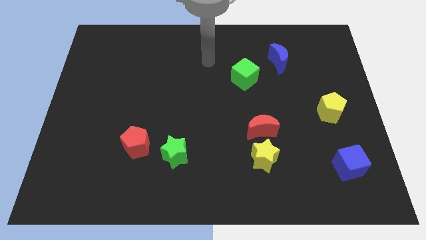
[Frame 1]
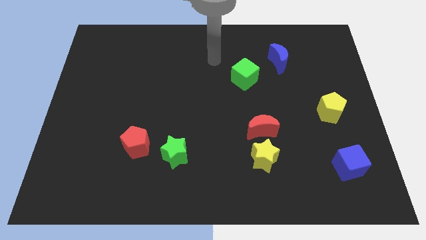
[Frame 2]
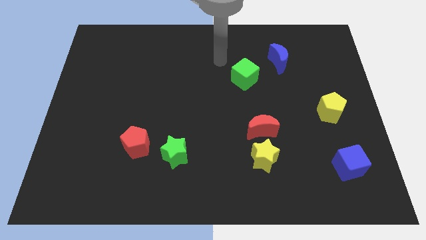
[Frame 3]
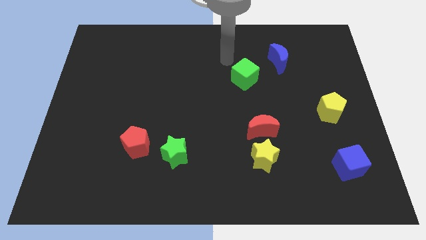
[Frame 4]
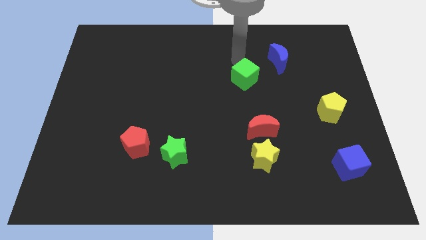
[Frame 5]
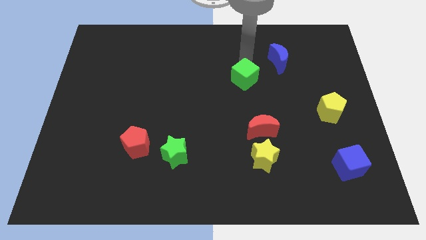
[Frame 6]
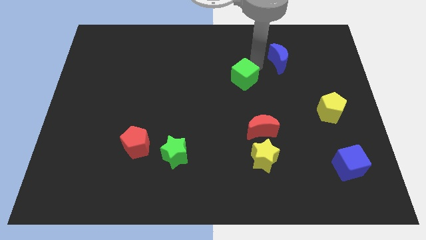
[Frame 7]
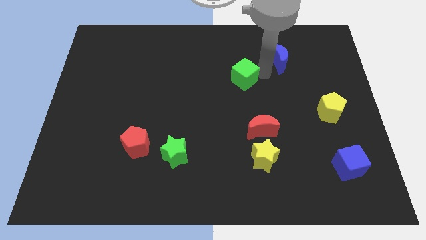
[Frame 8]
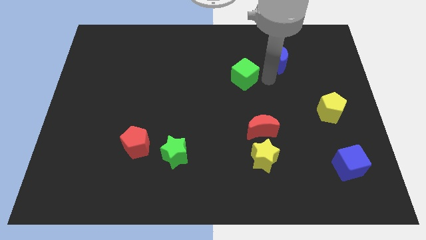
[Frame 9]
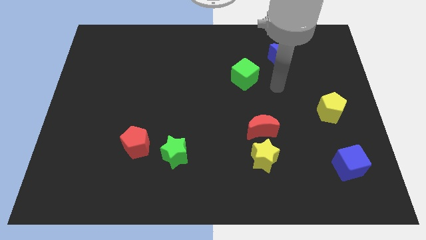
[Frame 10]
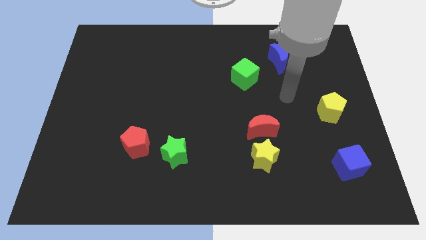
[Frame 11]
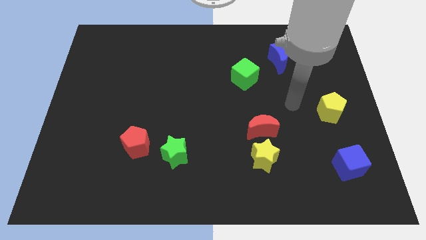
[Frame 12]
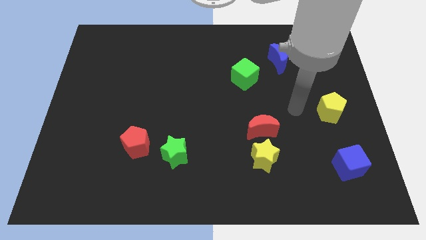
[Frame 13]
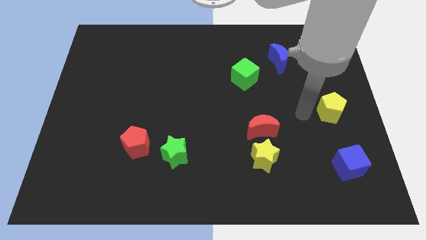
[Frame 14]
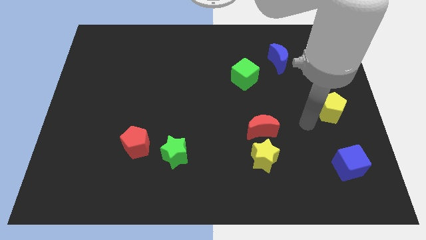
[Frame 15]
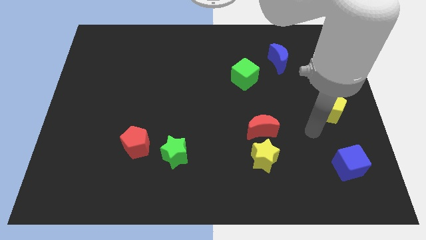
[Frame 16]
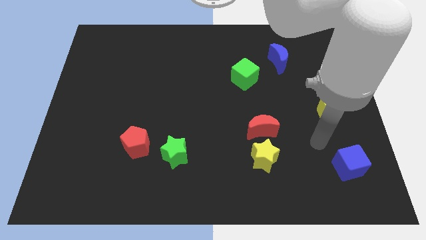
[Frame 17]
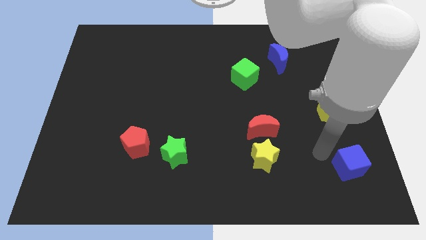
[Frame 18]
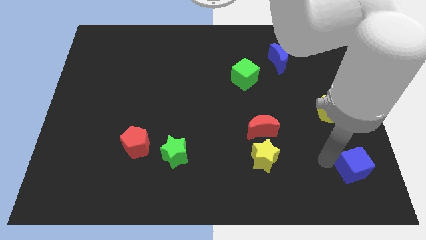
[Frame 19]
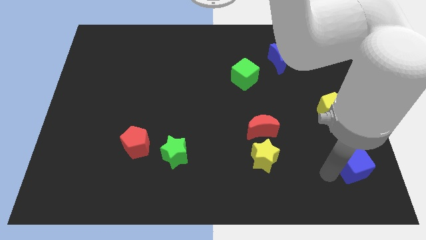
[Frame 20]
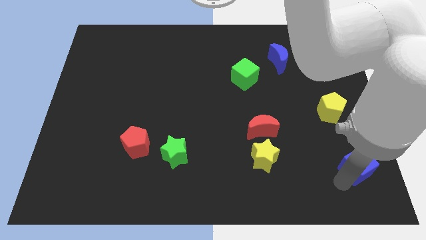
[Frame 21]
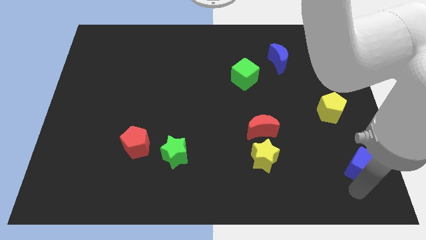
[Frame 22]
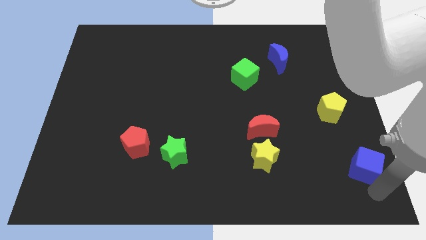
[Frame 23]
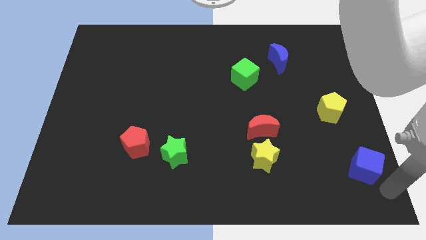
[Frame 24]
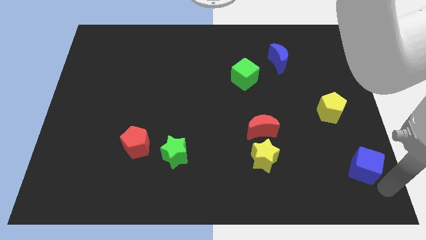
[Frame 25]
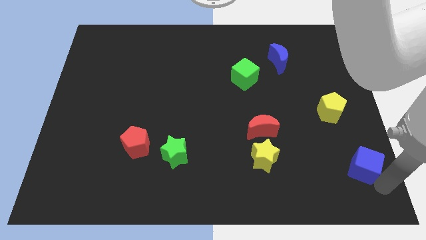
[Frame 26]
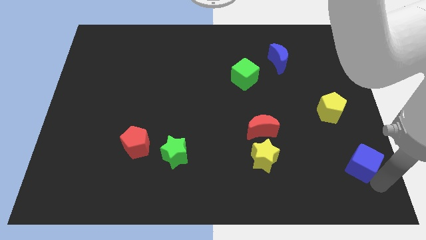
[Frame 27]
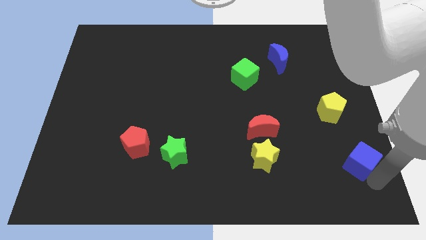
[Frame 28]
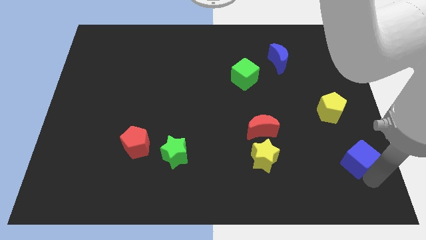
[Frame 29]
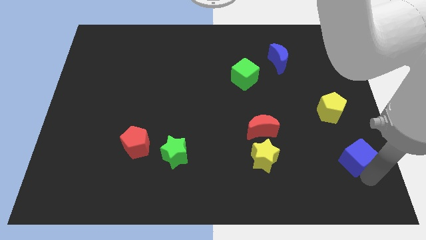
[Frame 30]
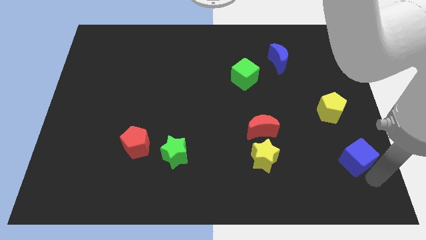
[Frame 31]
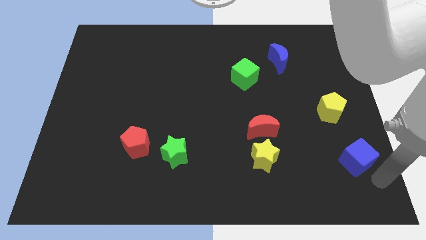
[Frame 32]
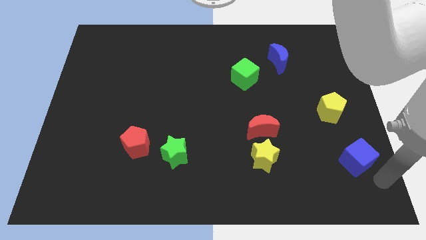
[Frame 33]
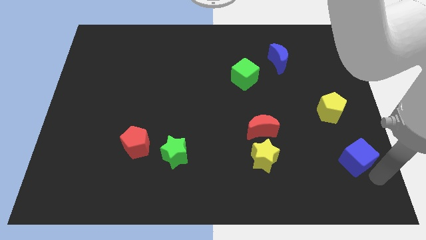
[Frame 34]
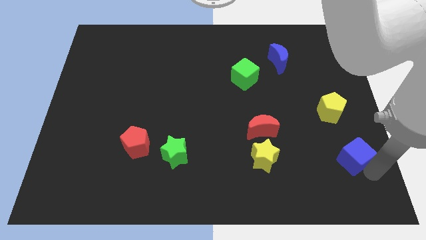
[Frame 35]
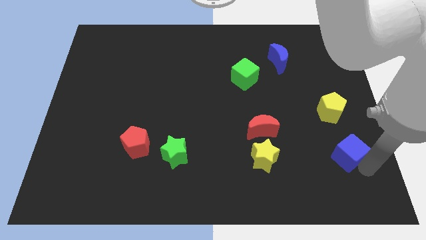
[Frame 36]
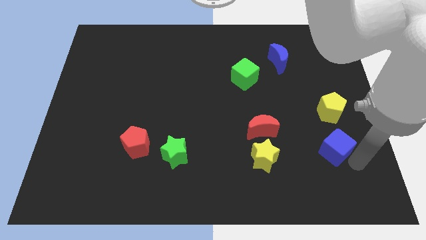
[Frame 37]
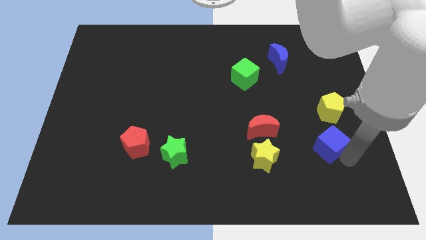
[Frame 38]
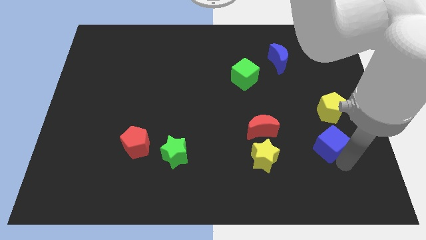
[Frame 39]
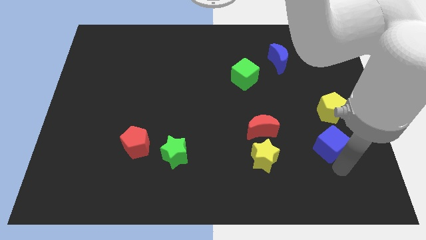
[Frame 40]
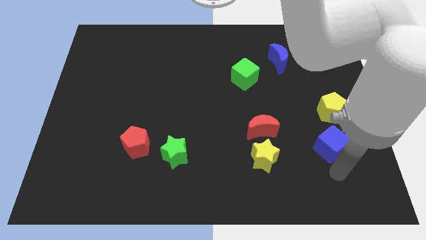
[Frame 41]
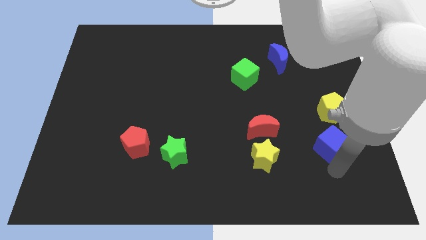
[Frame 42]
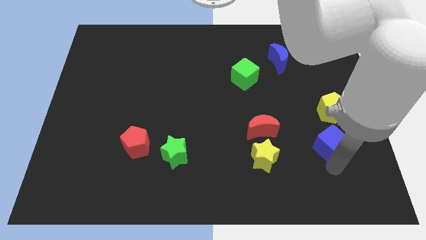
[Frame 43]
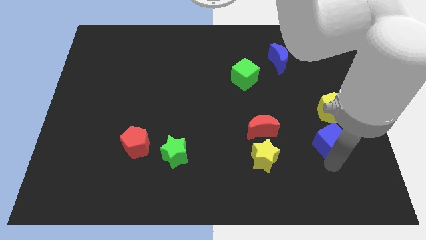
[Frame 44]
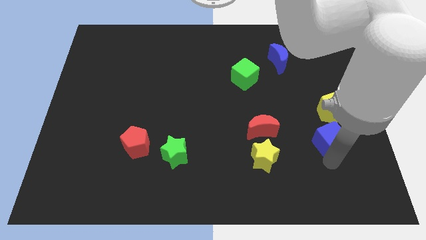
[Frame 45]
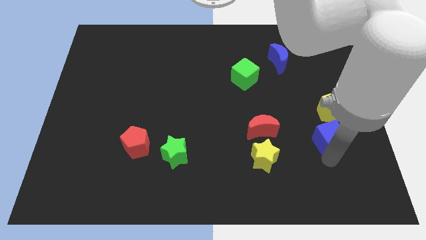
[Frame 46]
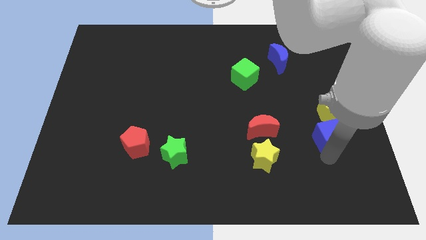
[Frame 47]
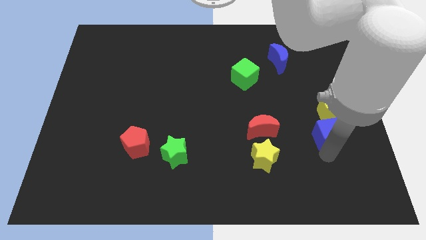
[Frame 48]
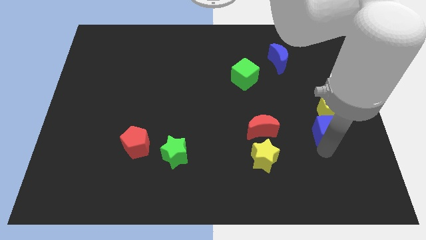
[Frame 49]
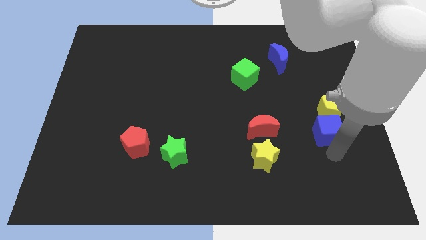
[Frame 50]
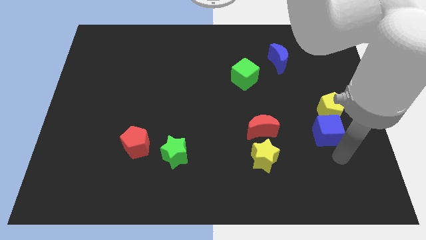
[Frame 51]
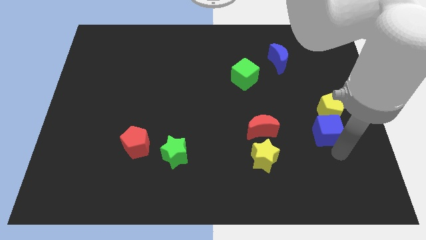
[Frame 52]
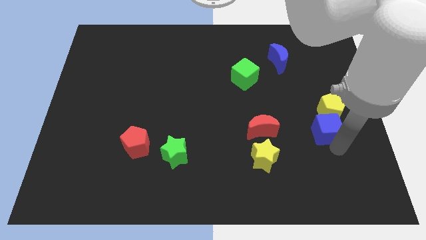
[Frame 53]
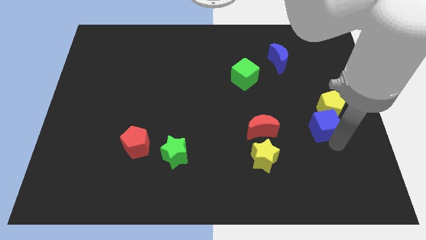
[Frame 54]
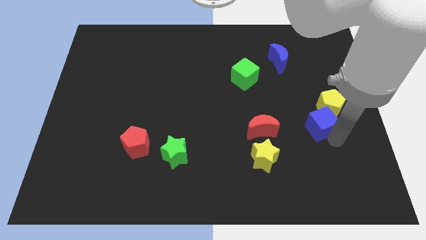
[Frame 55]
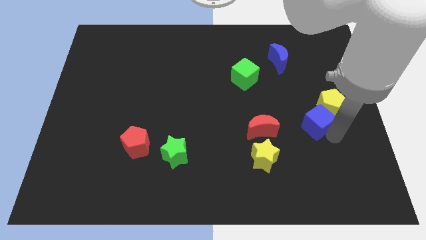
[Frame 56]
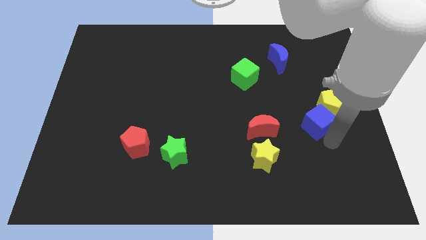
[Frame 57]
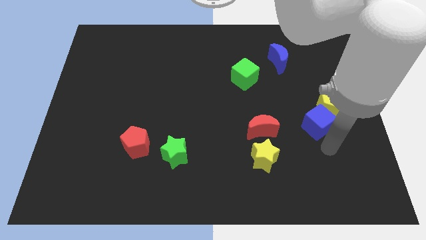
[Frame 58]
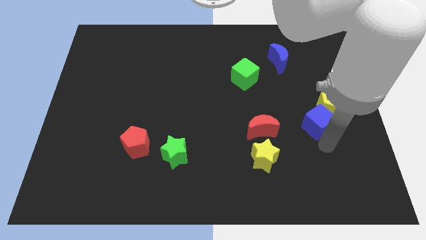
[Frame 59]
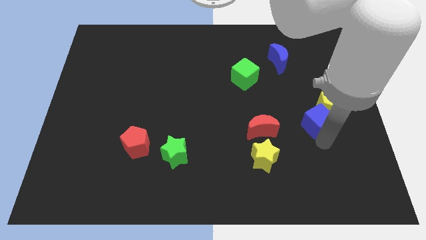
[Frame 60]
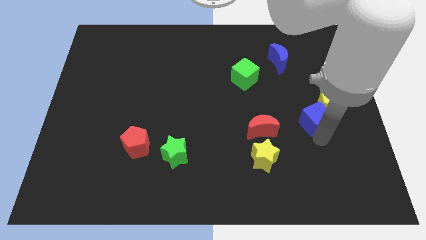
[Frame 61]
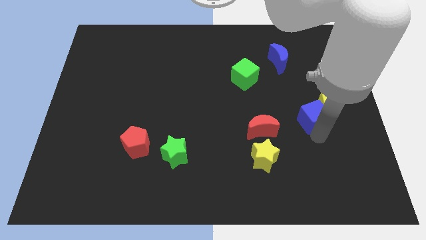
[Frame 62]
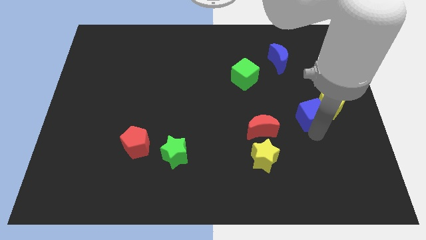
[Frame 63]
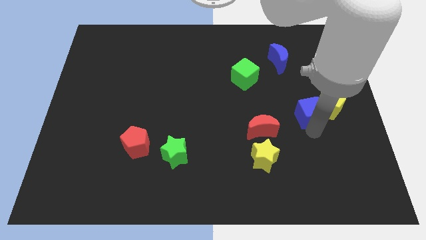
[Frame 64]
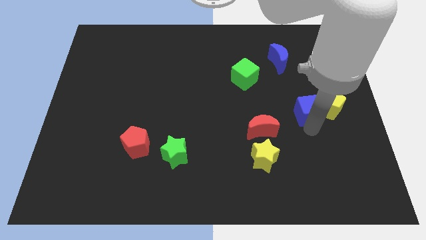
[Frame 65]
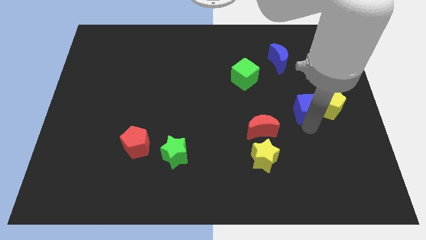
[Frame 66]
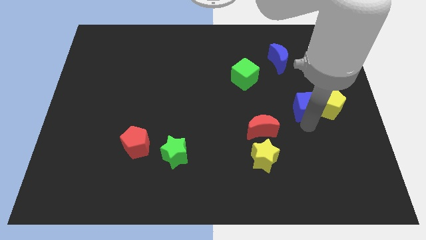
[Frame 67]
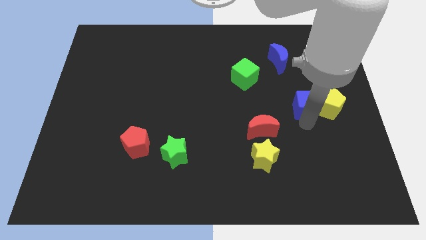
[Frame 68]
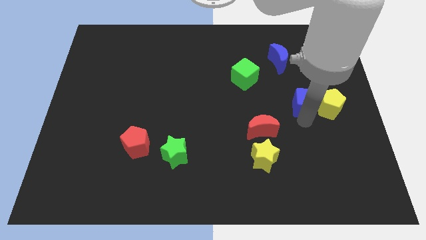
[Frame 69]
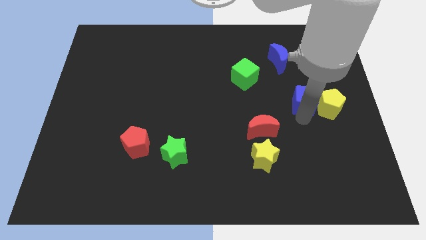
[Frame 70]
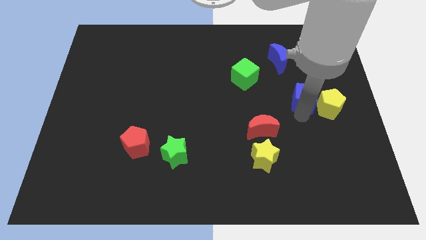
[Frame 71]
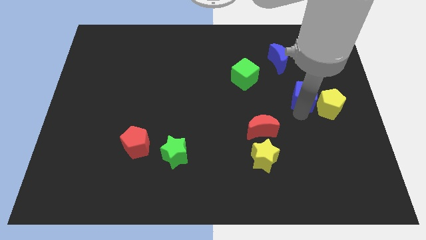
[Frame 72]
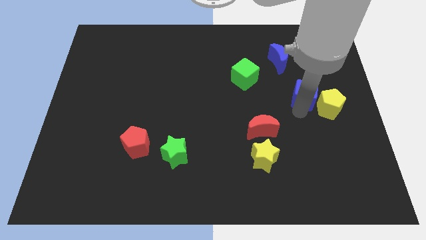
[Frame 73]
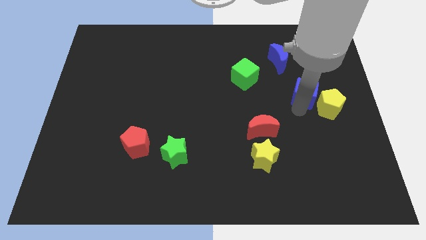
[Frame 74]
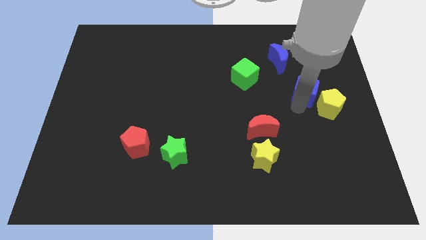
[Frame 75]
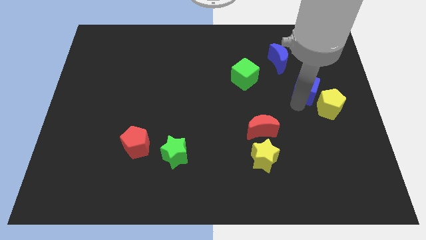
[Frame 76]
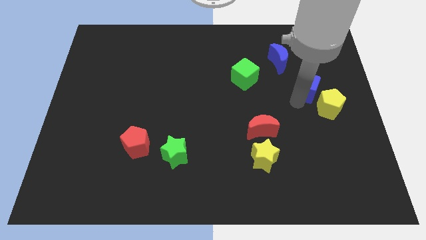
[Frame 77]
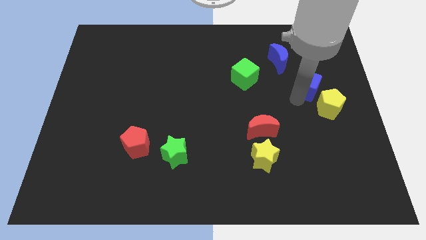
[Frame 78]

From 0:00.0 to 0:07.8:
slide the blue cube up

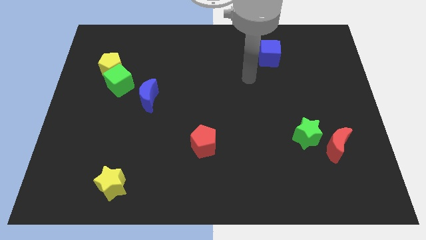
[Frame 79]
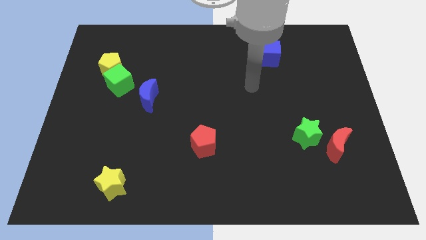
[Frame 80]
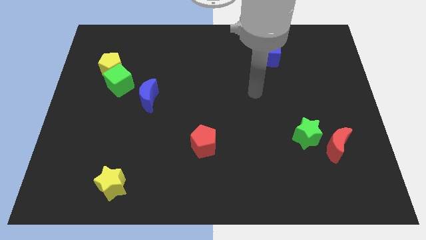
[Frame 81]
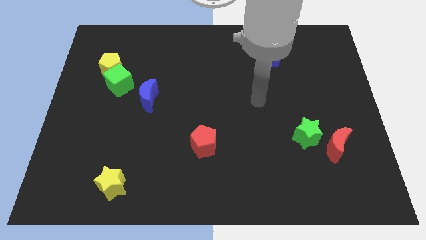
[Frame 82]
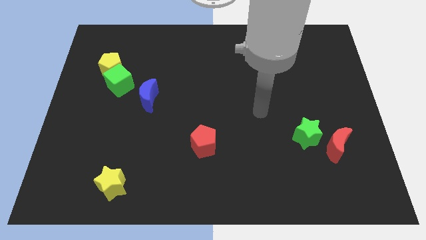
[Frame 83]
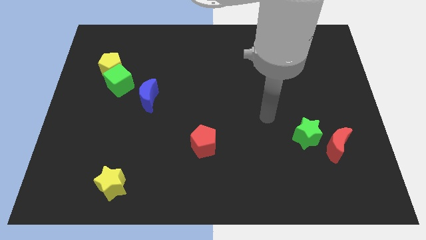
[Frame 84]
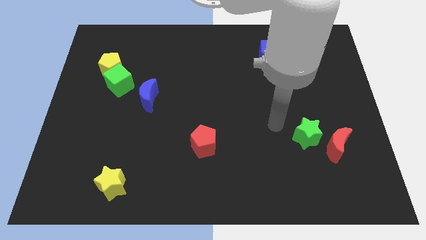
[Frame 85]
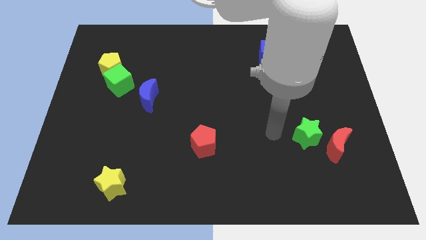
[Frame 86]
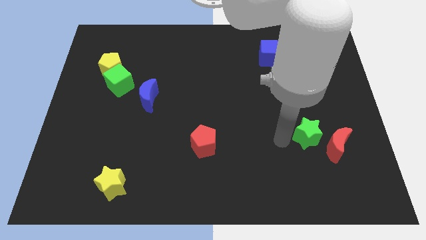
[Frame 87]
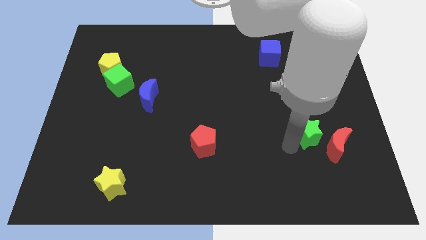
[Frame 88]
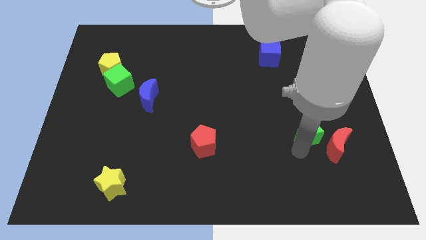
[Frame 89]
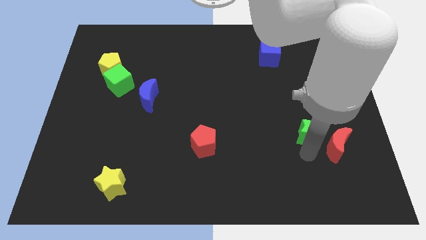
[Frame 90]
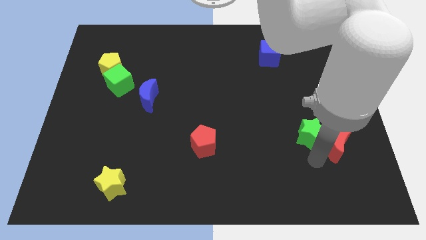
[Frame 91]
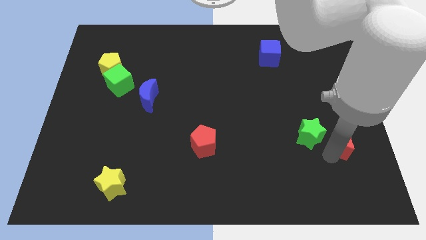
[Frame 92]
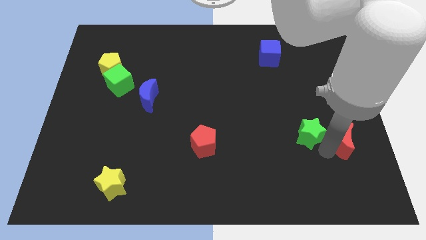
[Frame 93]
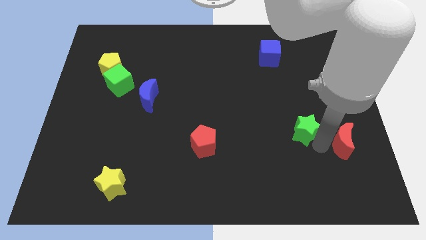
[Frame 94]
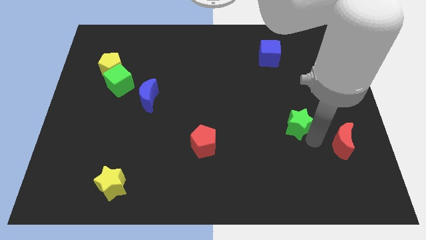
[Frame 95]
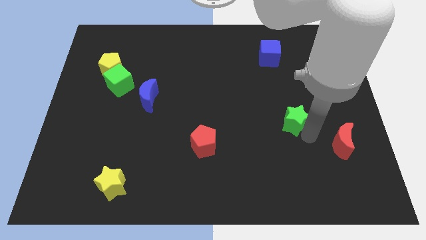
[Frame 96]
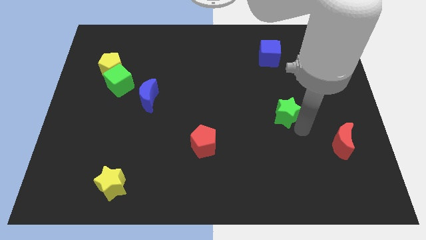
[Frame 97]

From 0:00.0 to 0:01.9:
slide the green star slightly upwards and then left
